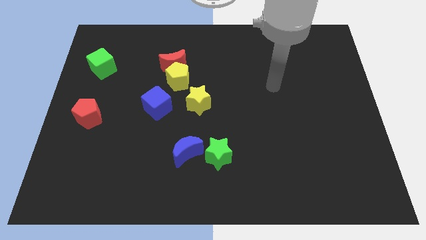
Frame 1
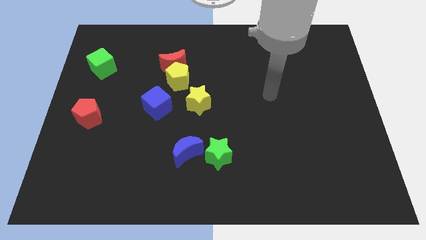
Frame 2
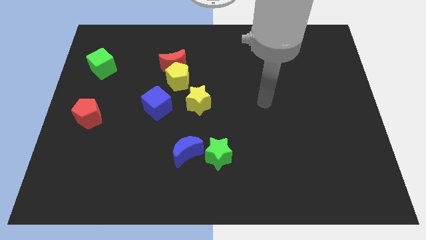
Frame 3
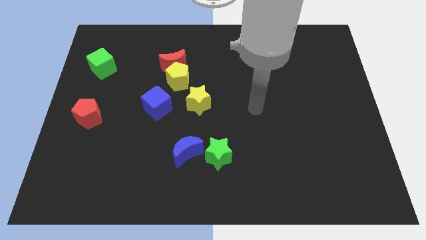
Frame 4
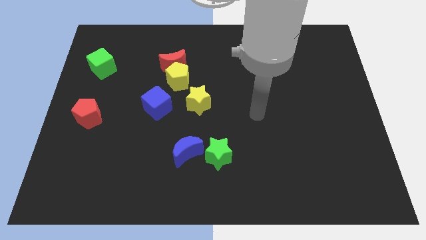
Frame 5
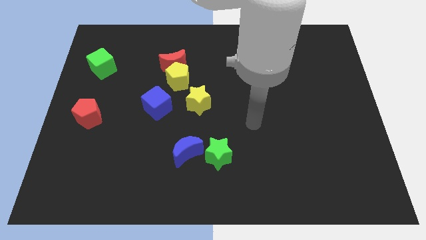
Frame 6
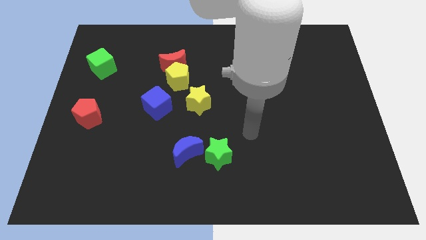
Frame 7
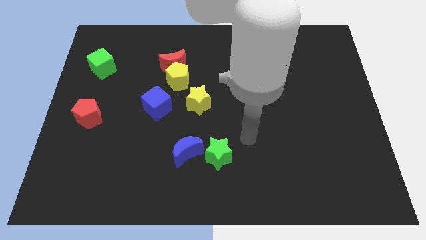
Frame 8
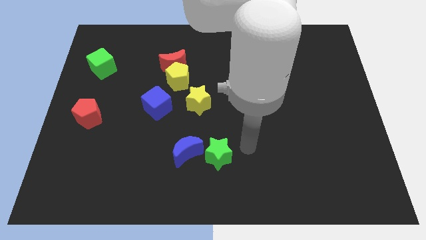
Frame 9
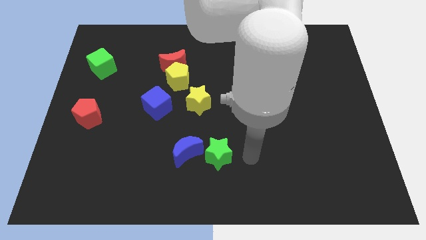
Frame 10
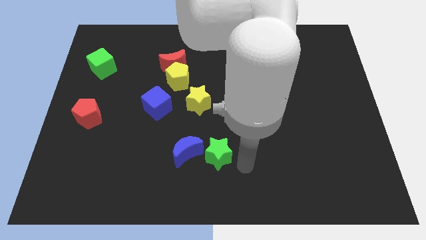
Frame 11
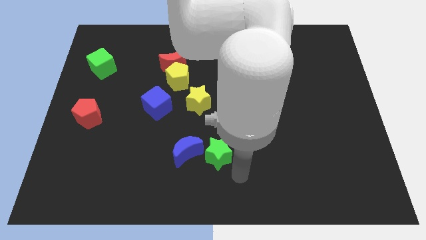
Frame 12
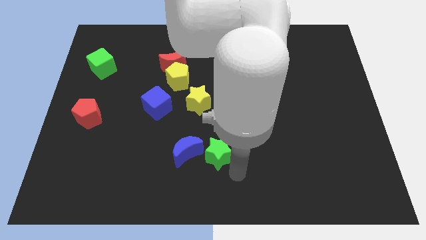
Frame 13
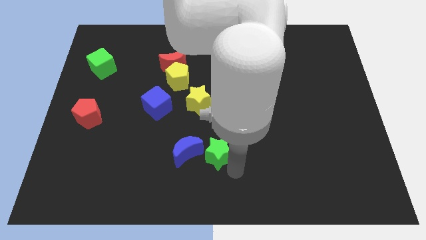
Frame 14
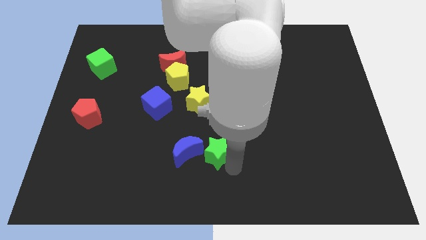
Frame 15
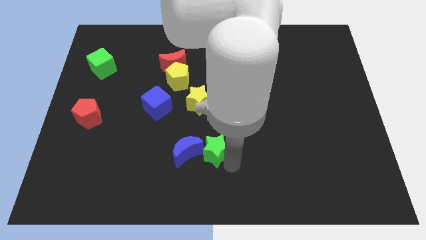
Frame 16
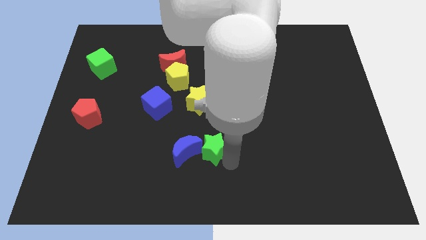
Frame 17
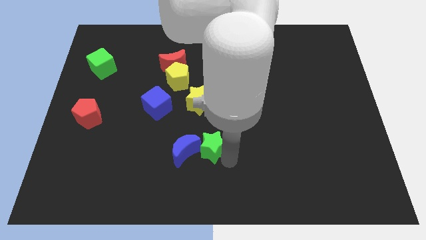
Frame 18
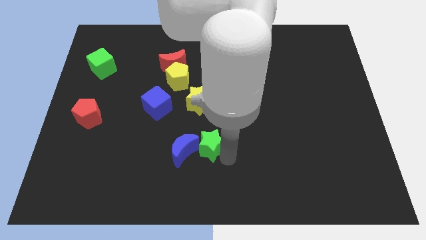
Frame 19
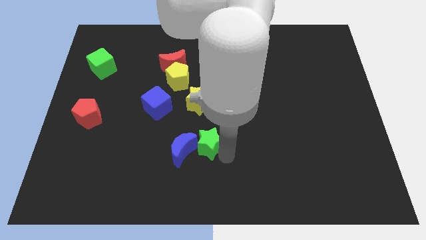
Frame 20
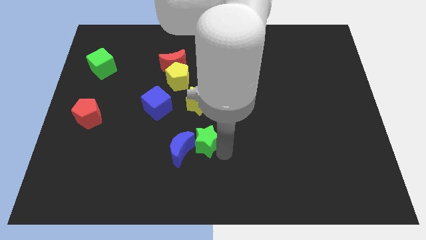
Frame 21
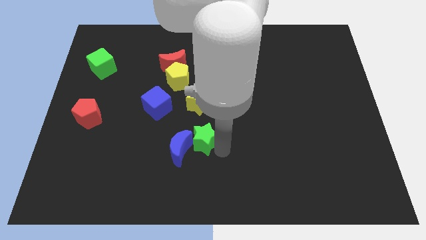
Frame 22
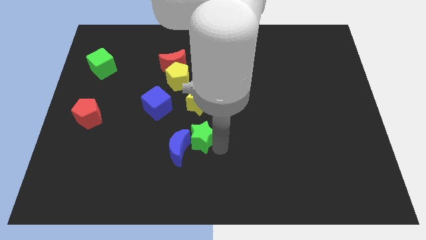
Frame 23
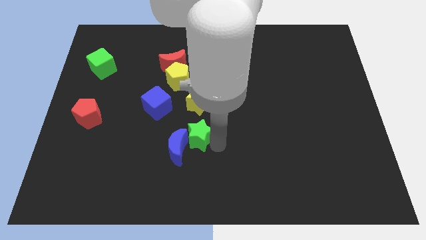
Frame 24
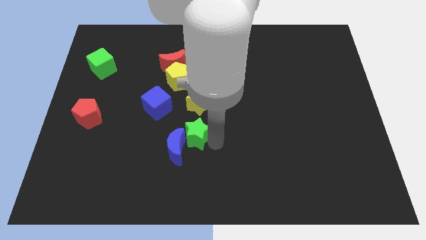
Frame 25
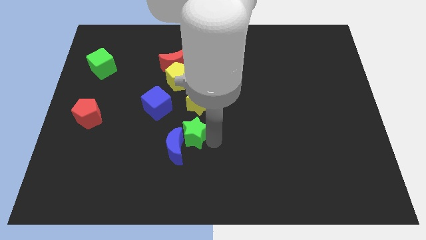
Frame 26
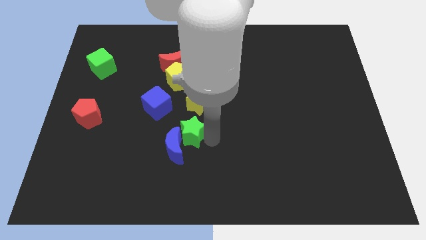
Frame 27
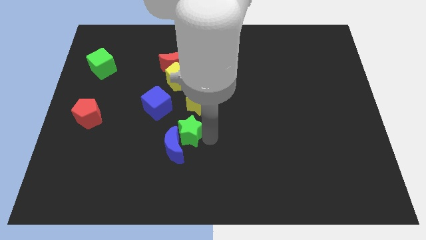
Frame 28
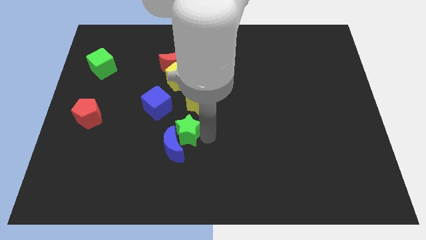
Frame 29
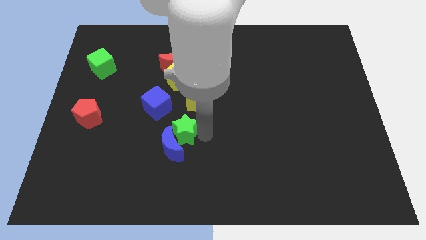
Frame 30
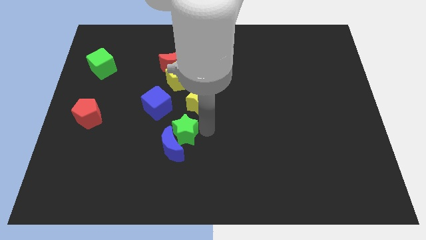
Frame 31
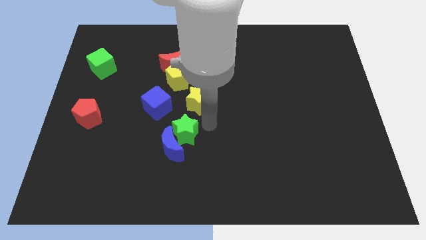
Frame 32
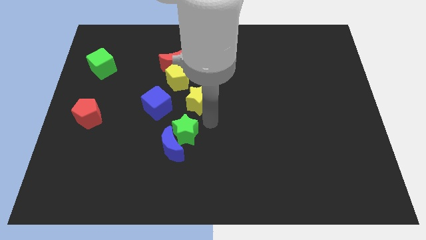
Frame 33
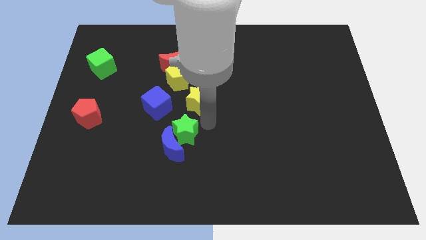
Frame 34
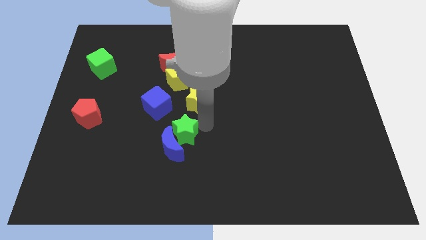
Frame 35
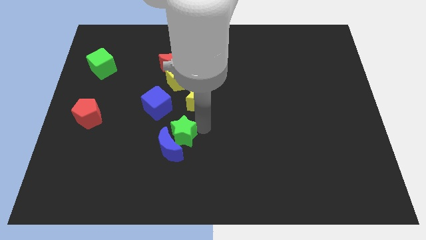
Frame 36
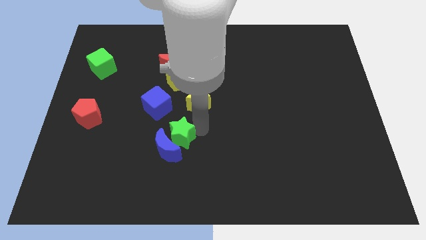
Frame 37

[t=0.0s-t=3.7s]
move the green star to the left a bit

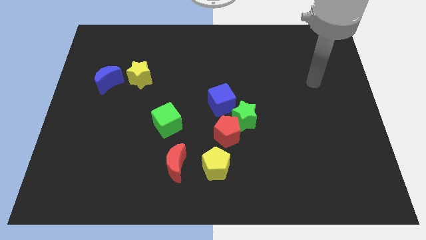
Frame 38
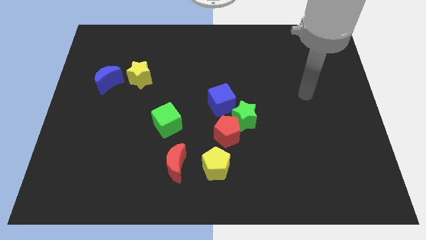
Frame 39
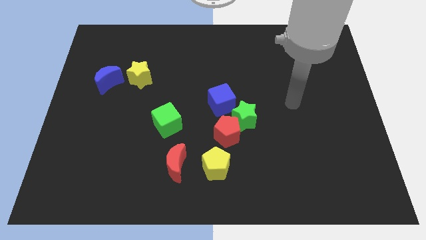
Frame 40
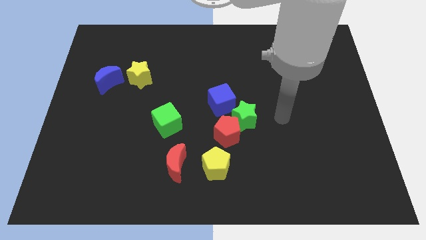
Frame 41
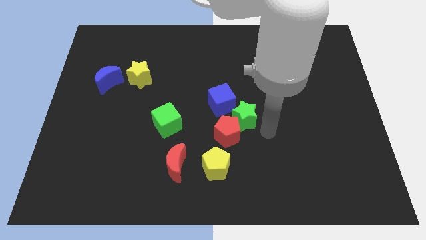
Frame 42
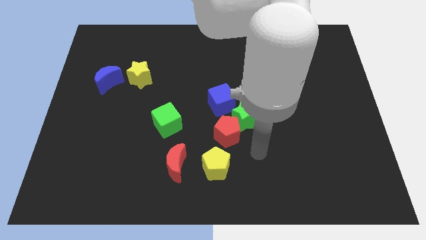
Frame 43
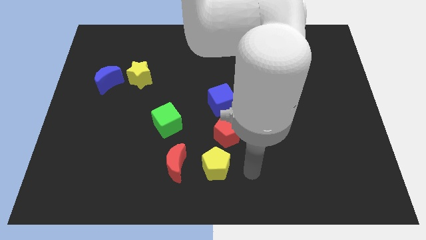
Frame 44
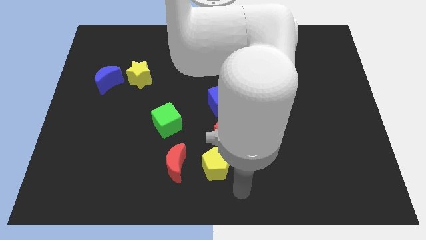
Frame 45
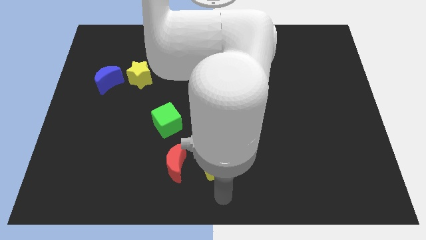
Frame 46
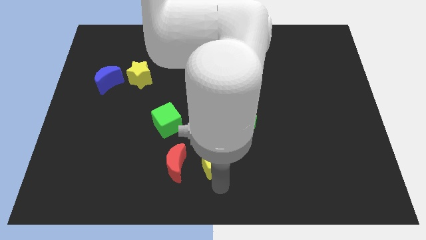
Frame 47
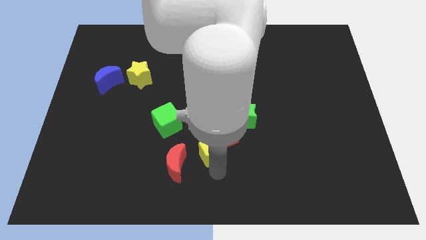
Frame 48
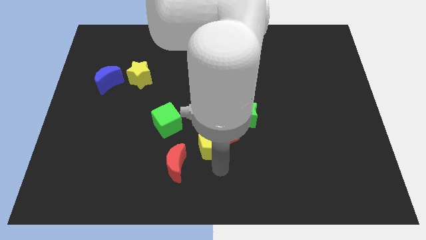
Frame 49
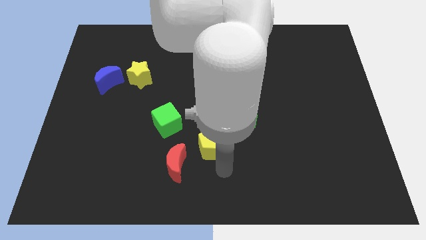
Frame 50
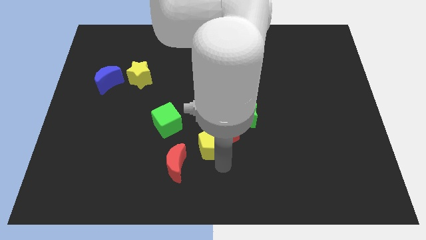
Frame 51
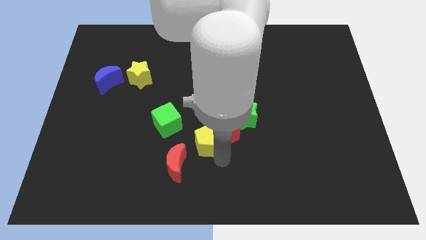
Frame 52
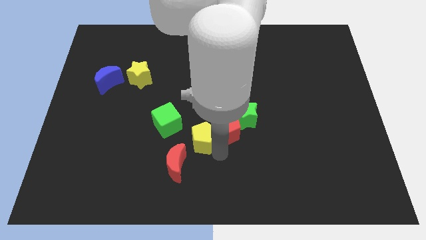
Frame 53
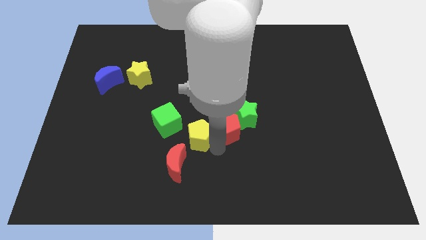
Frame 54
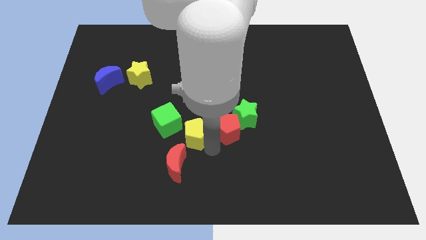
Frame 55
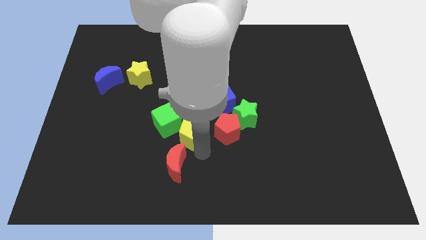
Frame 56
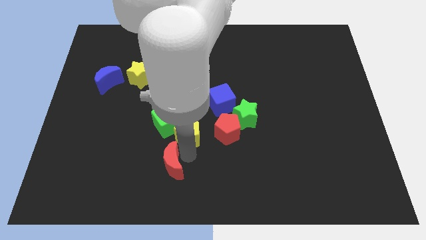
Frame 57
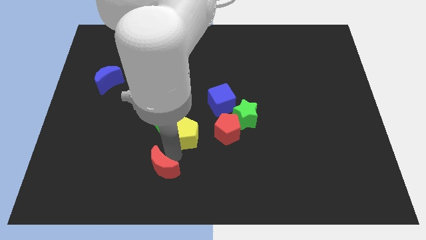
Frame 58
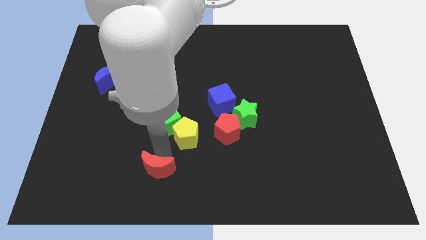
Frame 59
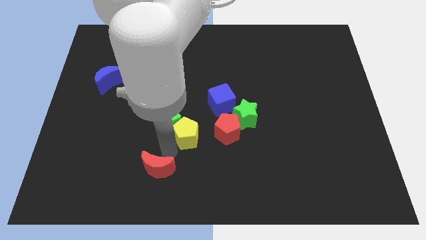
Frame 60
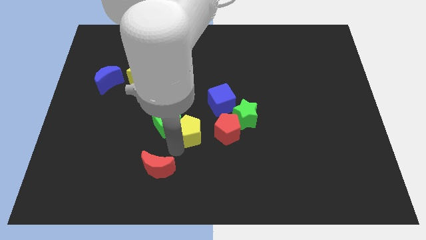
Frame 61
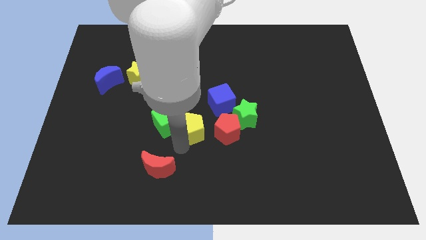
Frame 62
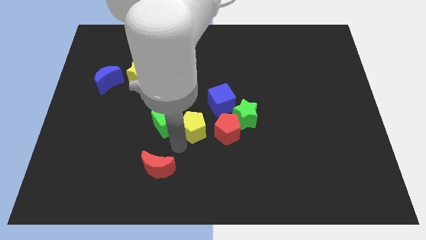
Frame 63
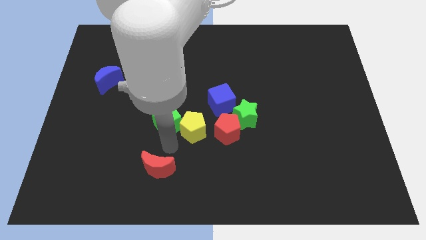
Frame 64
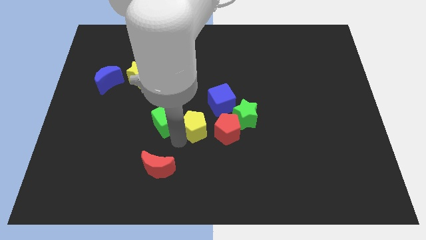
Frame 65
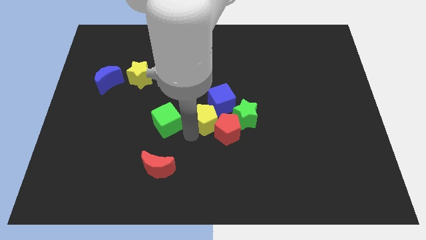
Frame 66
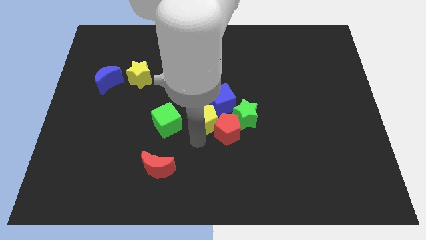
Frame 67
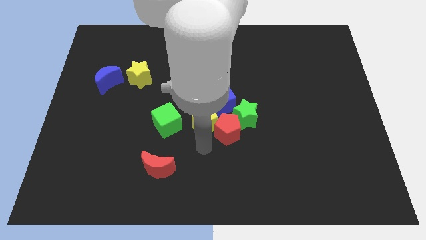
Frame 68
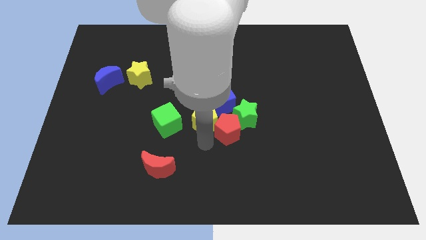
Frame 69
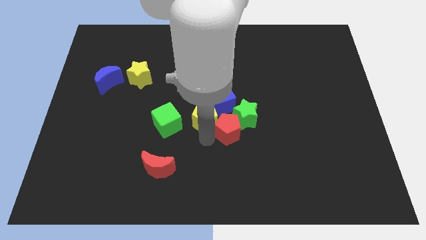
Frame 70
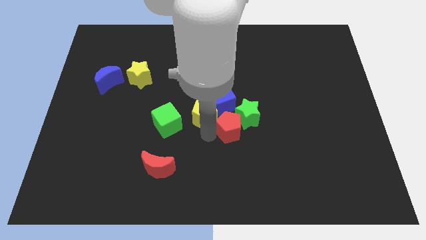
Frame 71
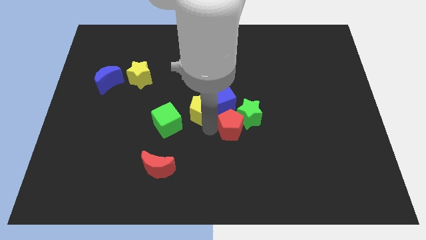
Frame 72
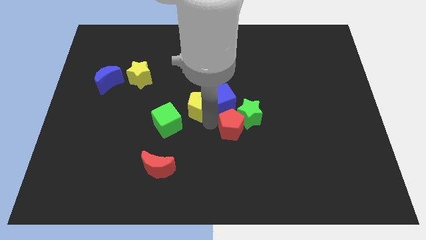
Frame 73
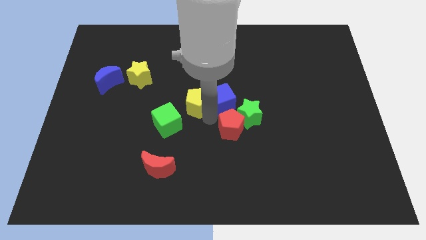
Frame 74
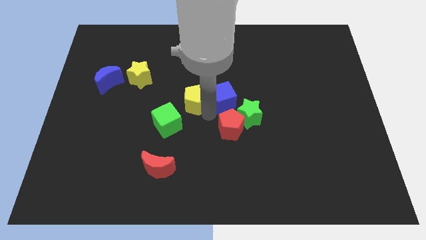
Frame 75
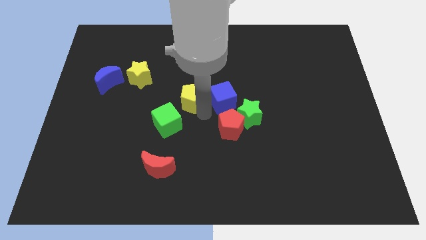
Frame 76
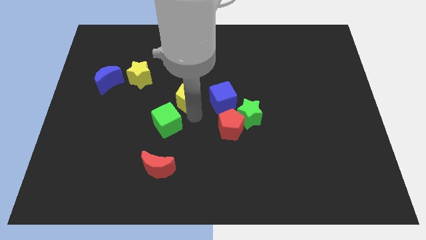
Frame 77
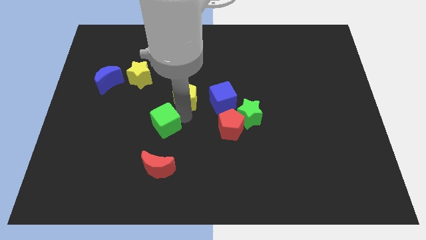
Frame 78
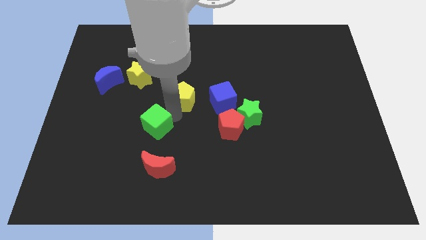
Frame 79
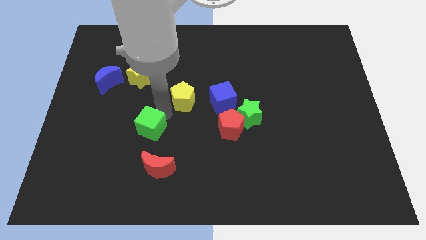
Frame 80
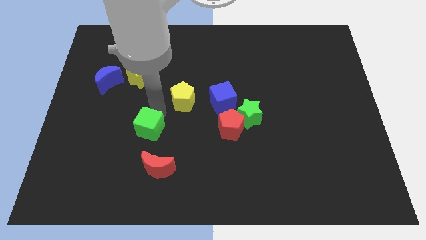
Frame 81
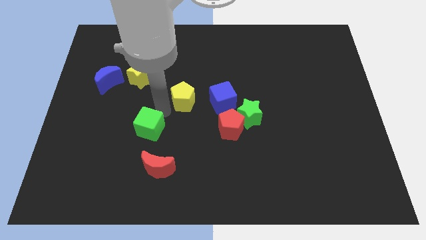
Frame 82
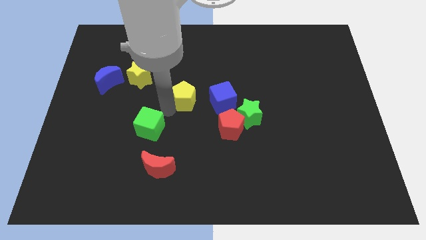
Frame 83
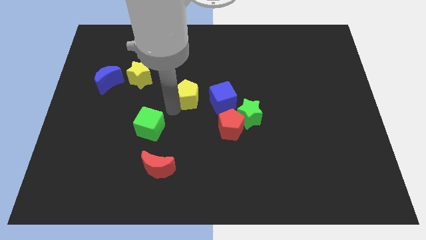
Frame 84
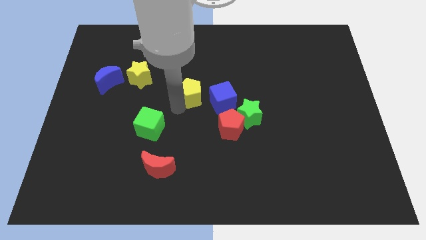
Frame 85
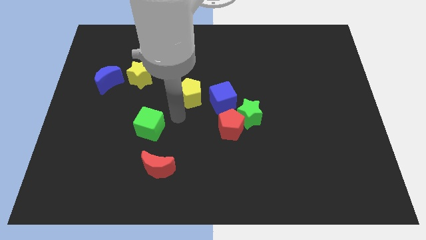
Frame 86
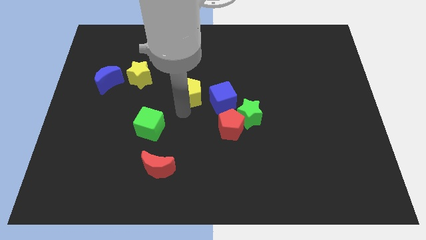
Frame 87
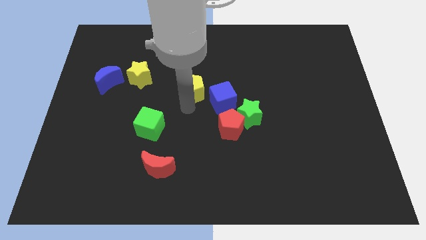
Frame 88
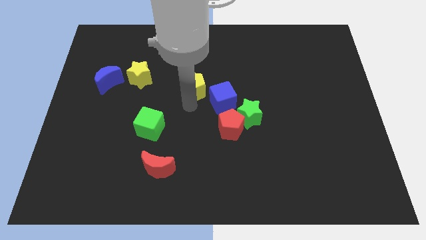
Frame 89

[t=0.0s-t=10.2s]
slide the yellow pentagon up
